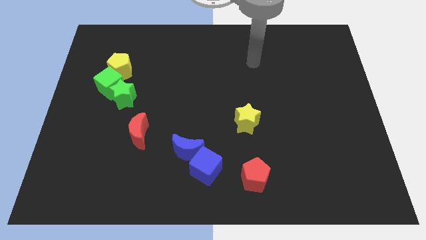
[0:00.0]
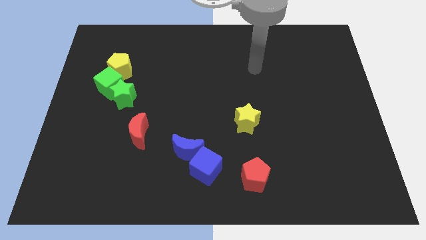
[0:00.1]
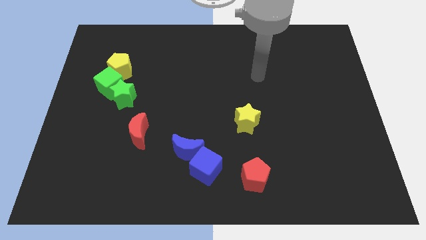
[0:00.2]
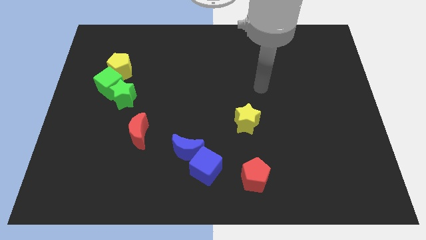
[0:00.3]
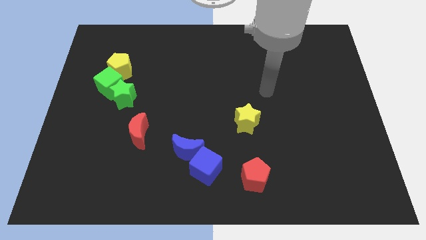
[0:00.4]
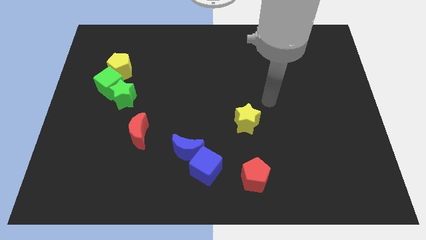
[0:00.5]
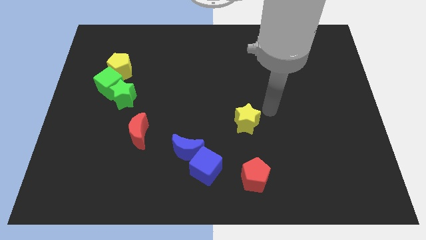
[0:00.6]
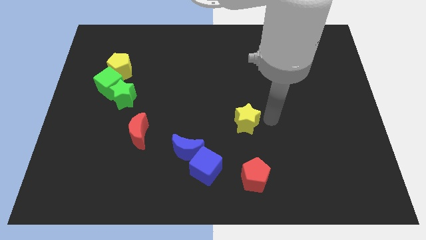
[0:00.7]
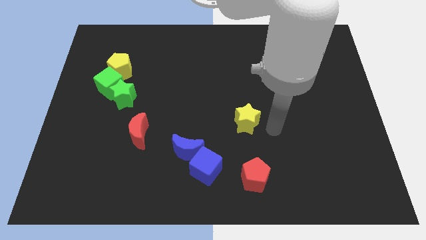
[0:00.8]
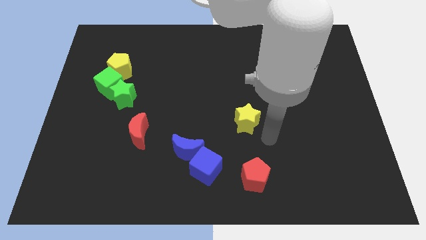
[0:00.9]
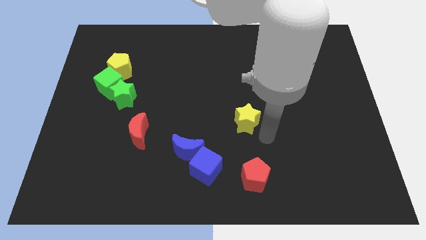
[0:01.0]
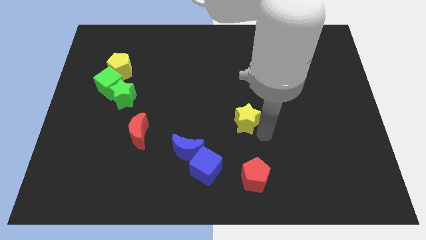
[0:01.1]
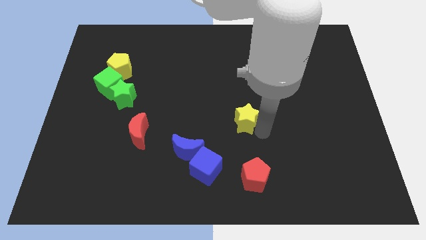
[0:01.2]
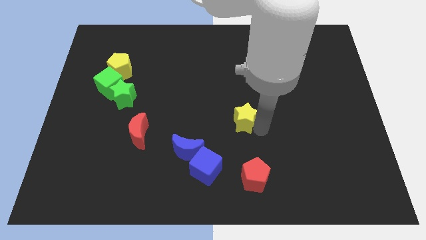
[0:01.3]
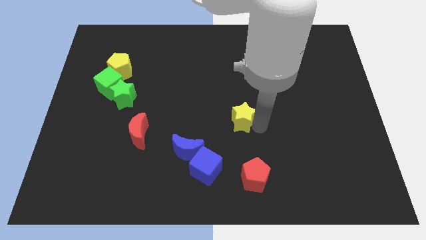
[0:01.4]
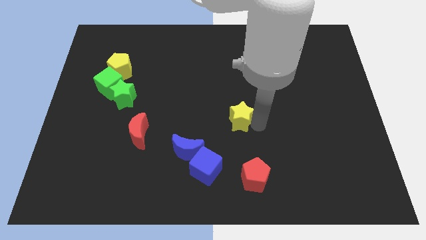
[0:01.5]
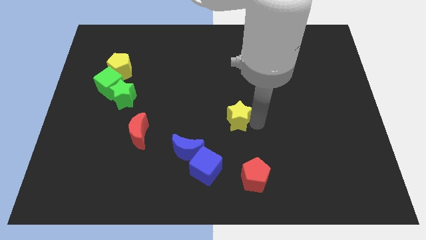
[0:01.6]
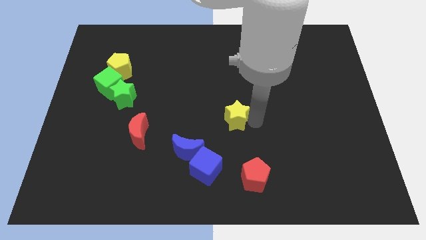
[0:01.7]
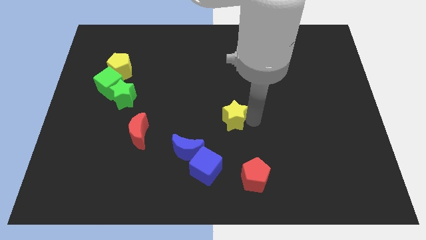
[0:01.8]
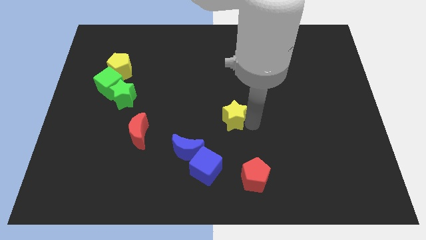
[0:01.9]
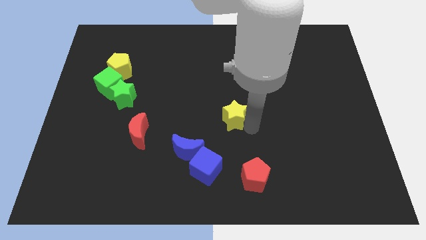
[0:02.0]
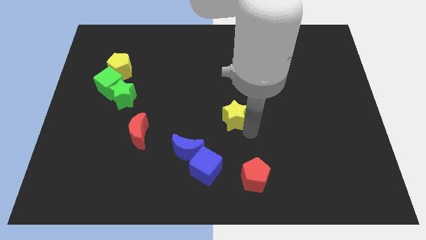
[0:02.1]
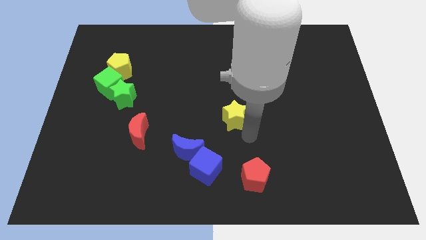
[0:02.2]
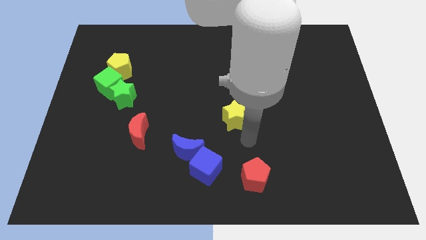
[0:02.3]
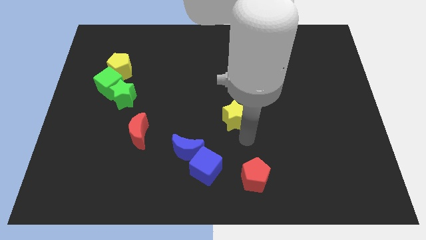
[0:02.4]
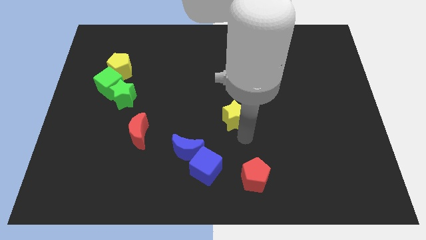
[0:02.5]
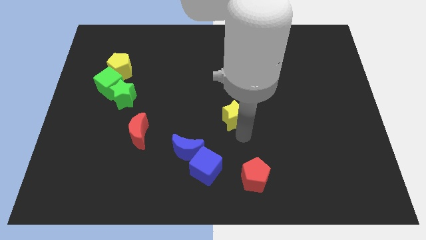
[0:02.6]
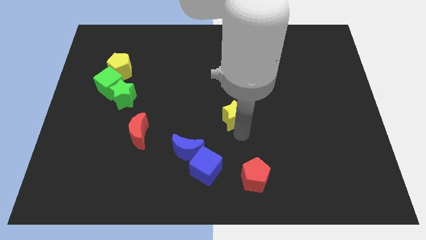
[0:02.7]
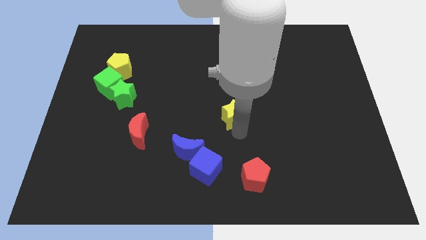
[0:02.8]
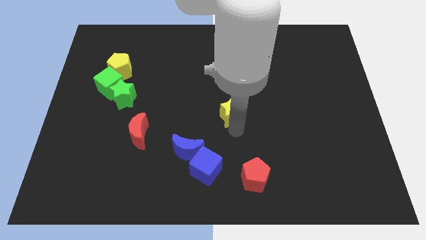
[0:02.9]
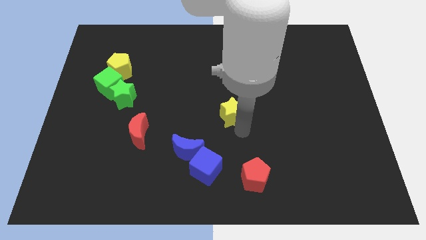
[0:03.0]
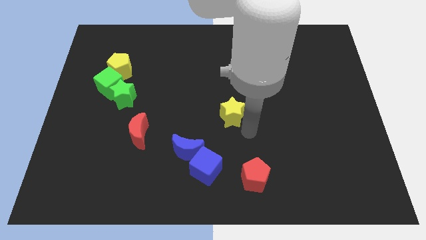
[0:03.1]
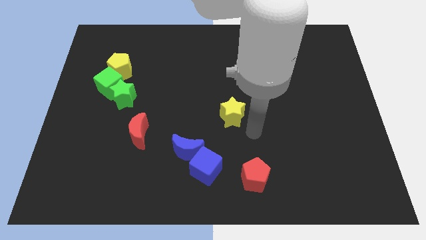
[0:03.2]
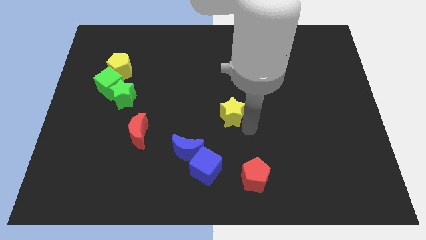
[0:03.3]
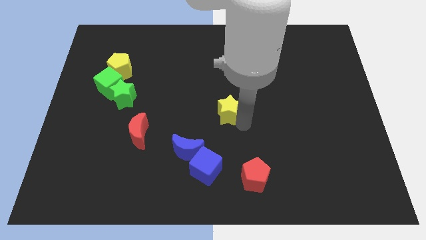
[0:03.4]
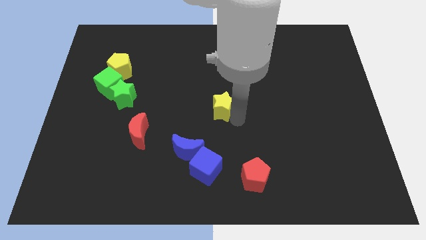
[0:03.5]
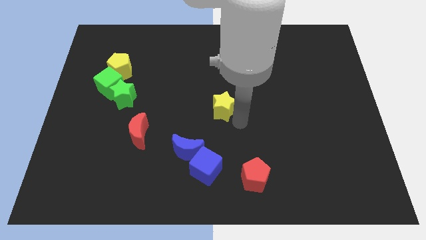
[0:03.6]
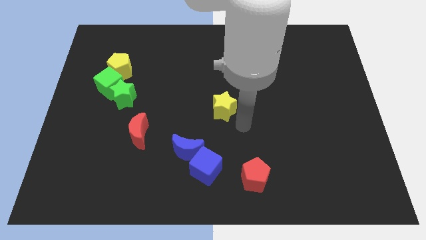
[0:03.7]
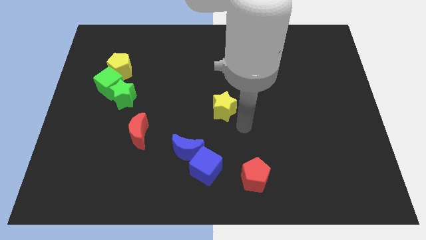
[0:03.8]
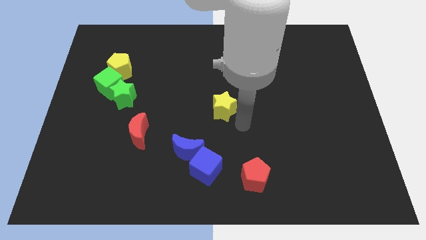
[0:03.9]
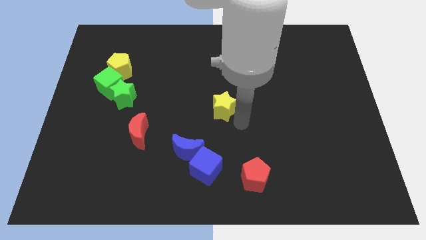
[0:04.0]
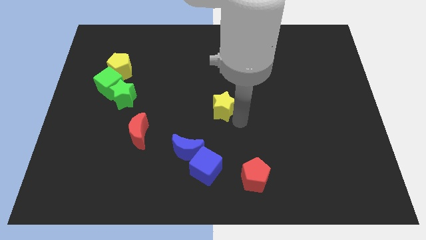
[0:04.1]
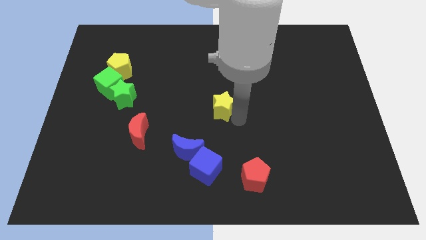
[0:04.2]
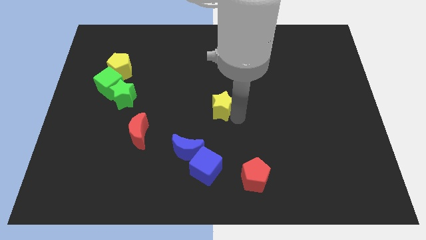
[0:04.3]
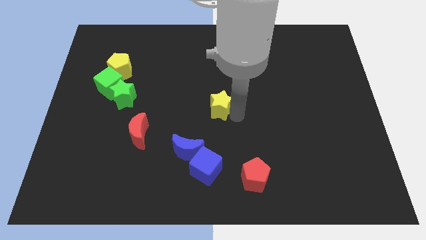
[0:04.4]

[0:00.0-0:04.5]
slide the yellow star upwards and to the left a bit

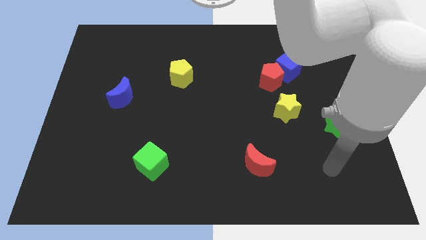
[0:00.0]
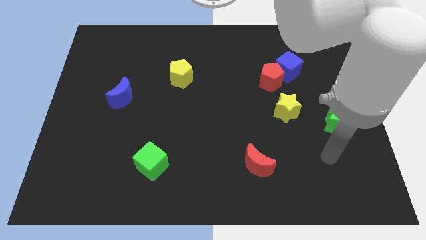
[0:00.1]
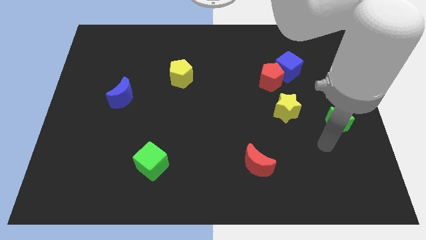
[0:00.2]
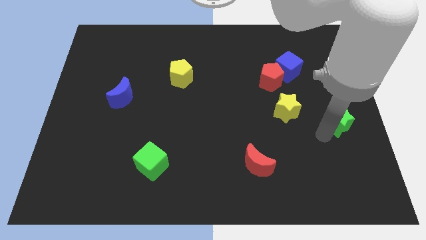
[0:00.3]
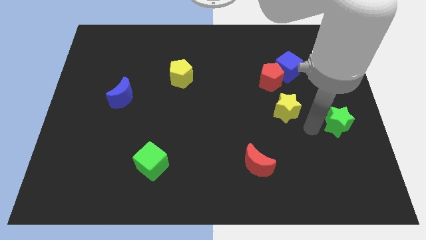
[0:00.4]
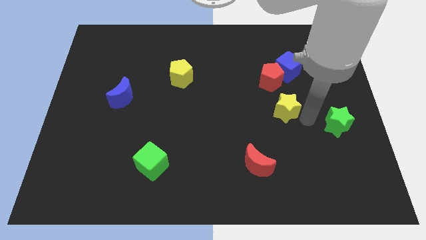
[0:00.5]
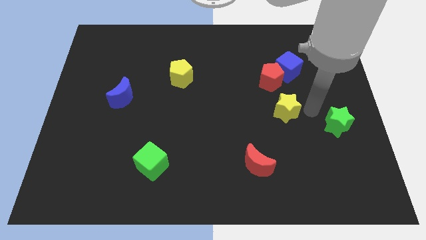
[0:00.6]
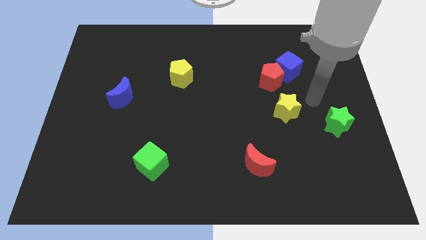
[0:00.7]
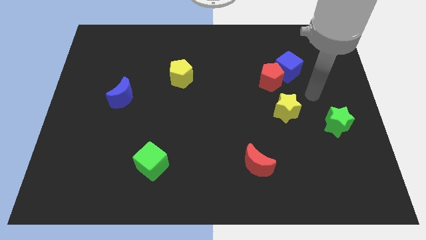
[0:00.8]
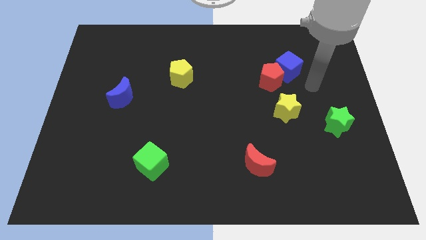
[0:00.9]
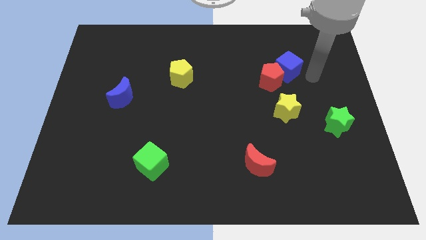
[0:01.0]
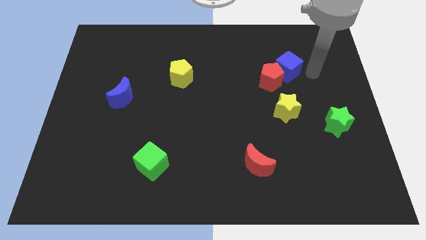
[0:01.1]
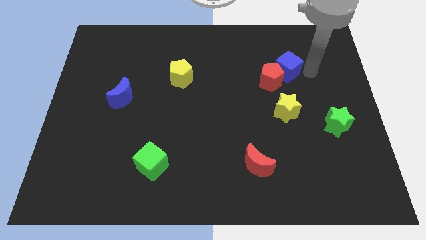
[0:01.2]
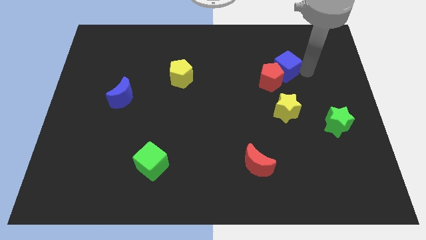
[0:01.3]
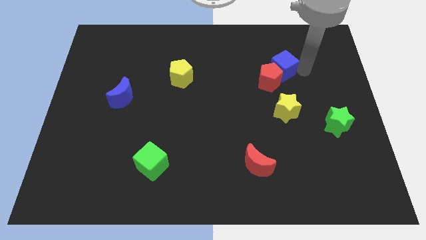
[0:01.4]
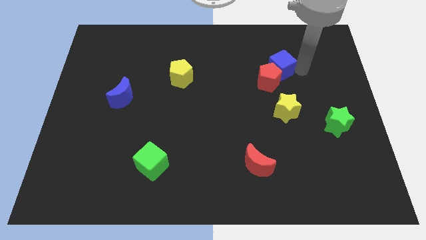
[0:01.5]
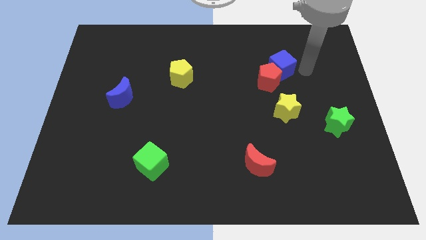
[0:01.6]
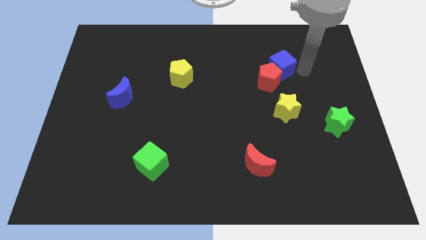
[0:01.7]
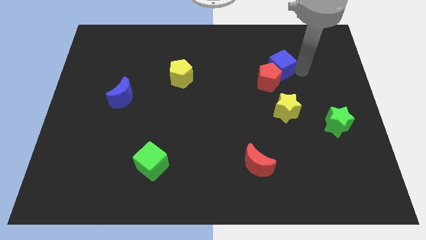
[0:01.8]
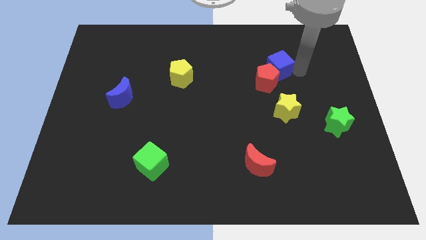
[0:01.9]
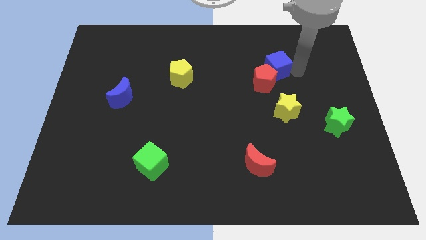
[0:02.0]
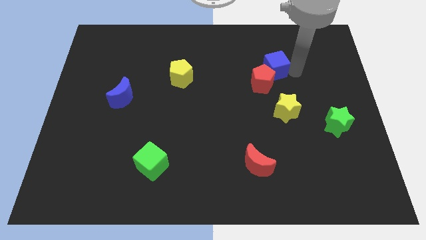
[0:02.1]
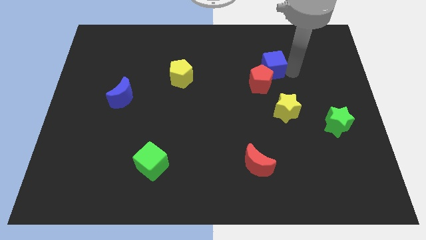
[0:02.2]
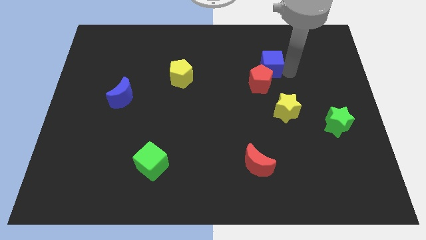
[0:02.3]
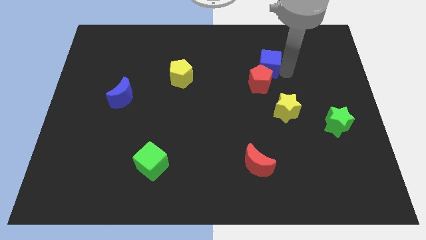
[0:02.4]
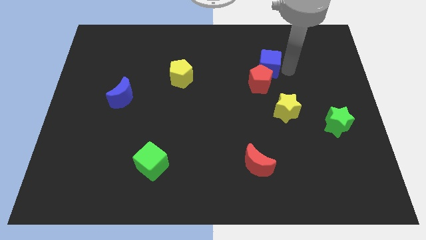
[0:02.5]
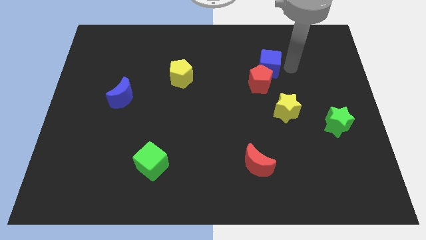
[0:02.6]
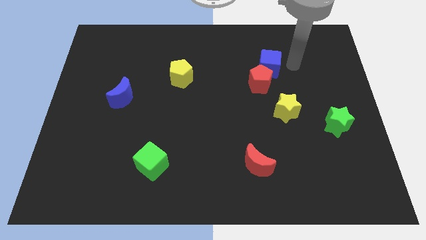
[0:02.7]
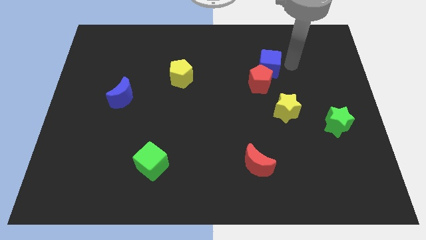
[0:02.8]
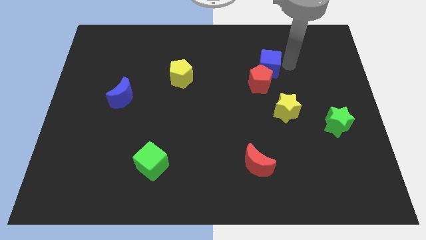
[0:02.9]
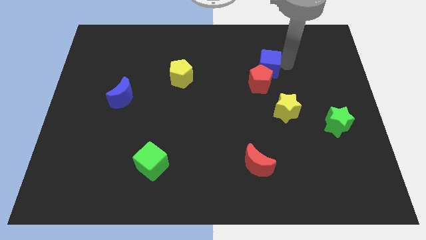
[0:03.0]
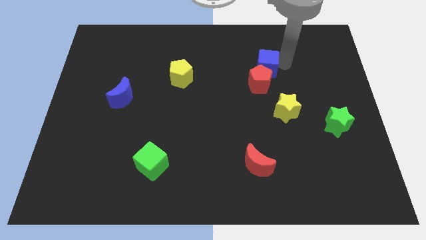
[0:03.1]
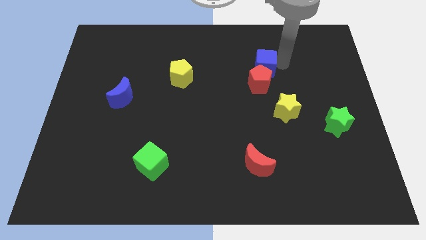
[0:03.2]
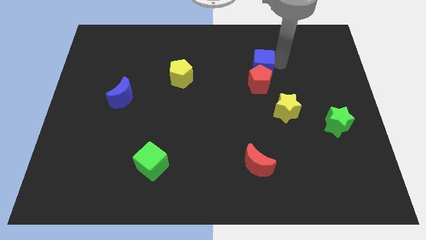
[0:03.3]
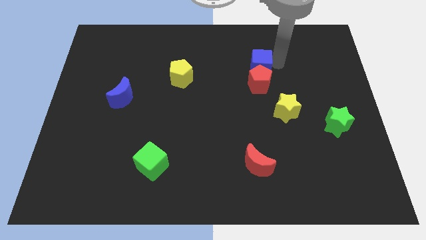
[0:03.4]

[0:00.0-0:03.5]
push the blue cube a little left
